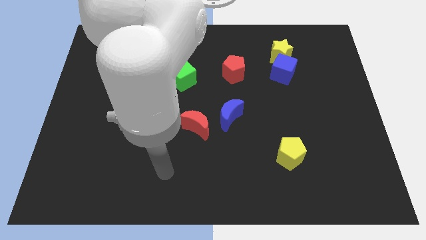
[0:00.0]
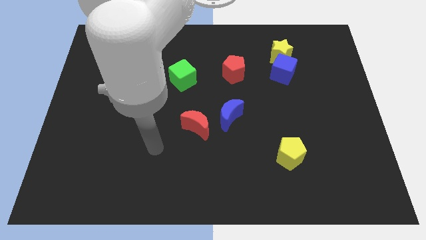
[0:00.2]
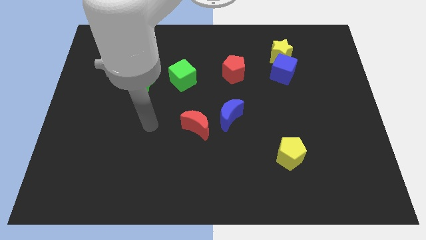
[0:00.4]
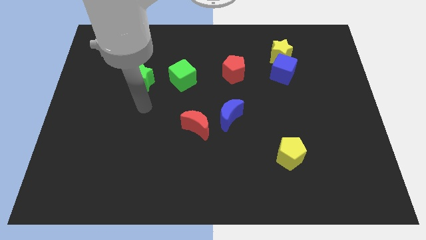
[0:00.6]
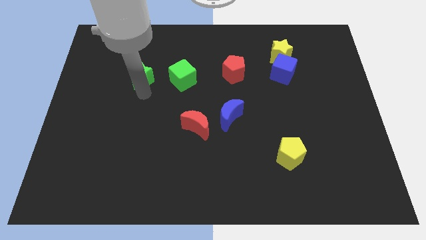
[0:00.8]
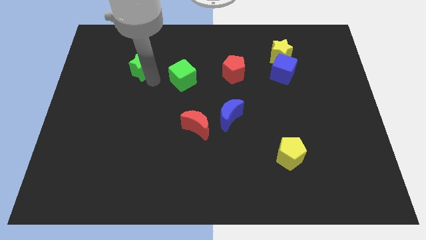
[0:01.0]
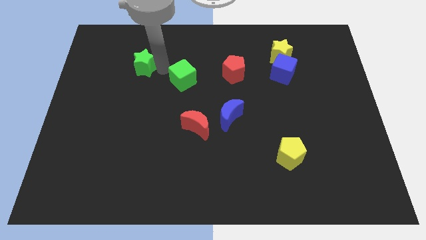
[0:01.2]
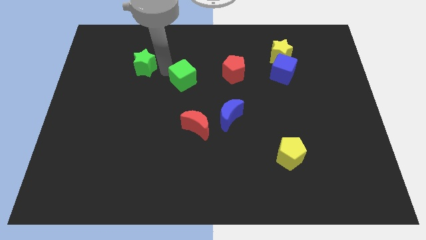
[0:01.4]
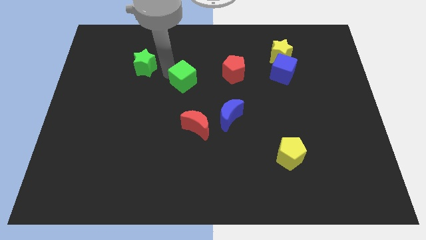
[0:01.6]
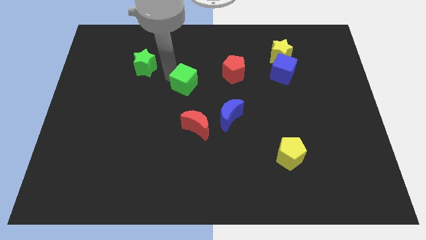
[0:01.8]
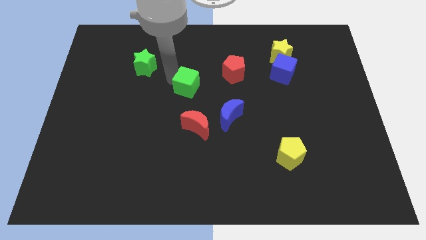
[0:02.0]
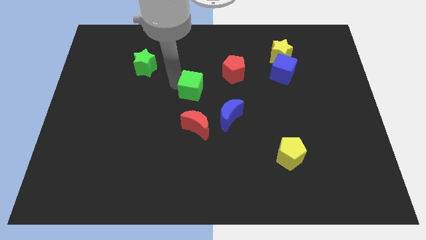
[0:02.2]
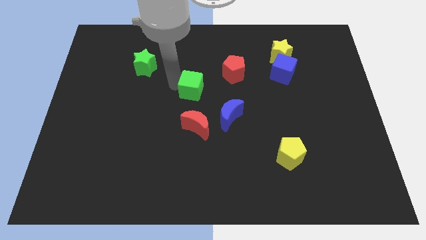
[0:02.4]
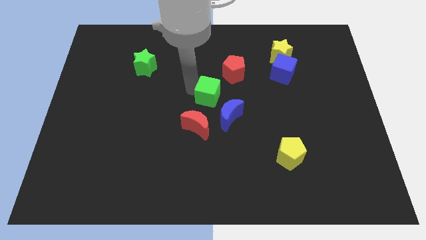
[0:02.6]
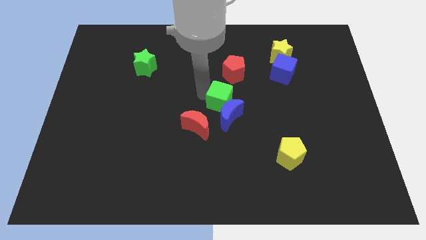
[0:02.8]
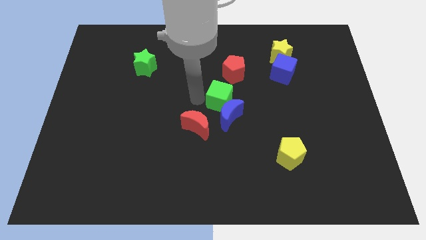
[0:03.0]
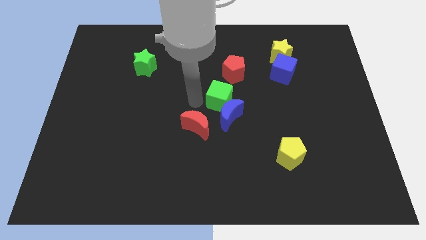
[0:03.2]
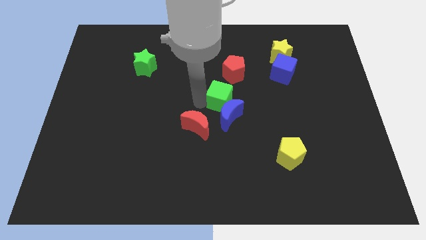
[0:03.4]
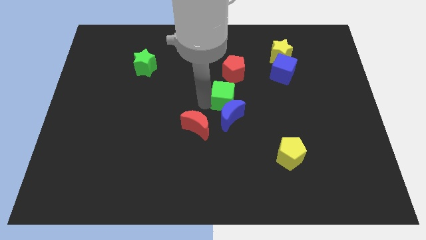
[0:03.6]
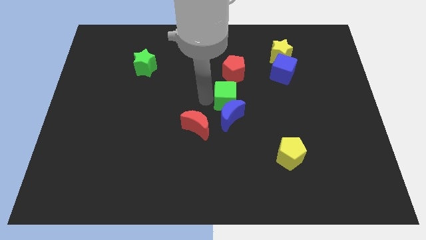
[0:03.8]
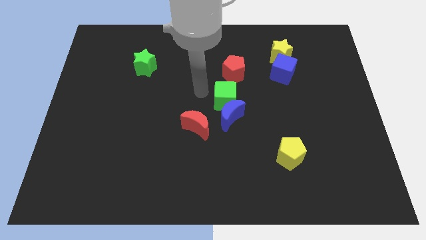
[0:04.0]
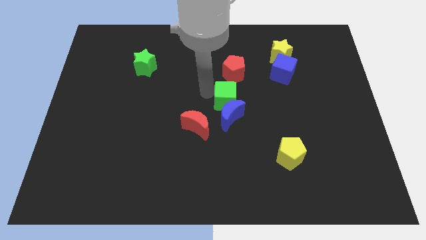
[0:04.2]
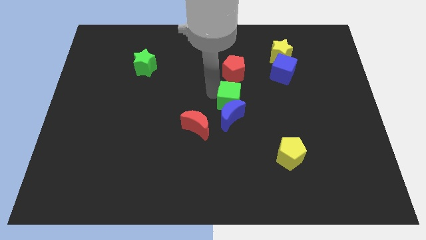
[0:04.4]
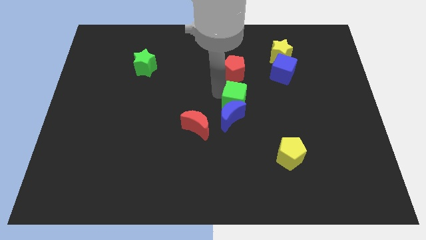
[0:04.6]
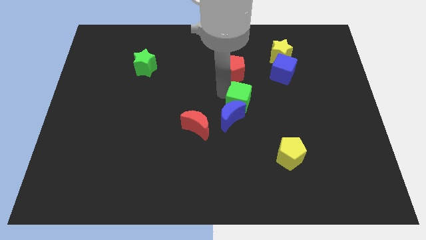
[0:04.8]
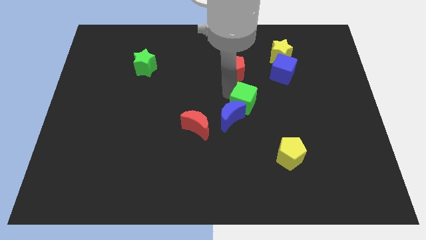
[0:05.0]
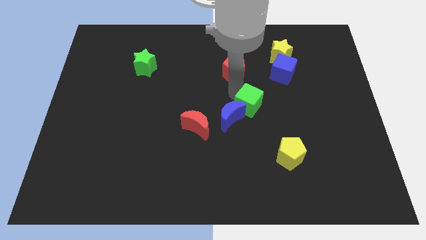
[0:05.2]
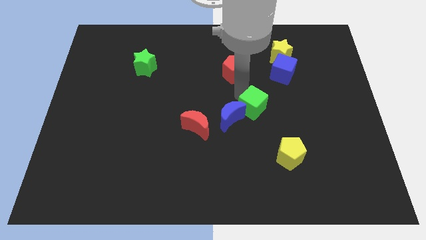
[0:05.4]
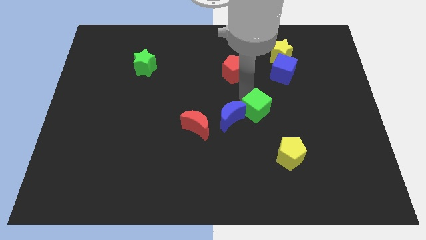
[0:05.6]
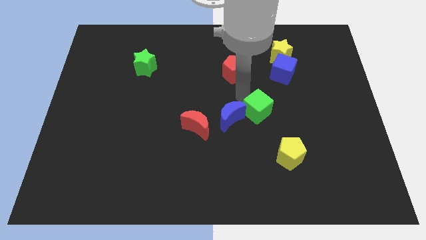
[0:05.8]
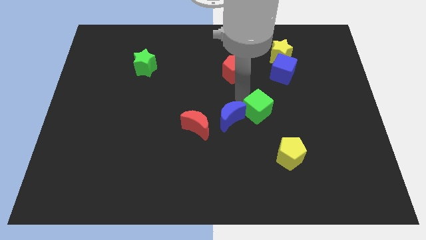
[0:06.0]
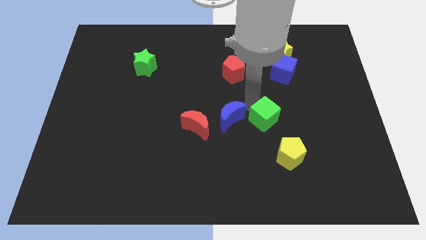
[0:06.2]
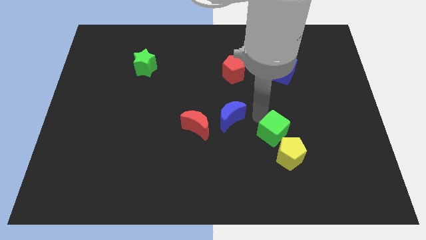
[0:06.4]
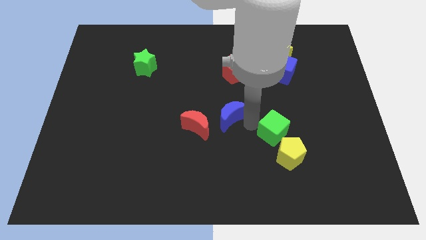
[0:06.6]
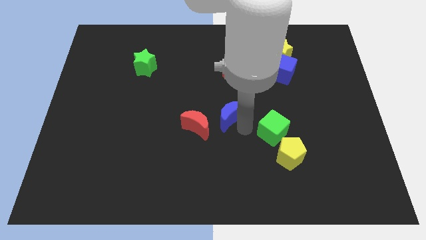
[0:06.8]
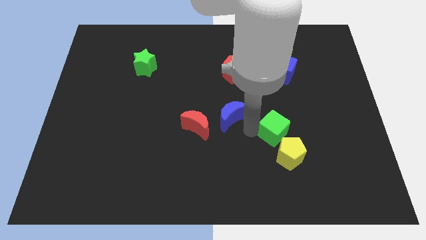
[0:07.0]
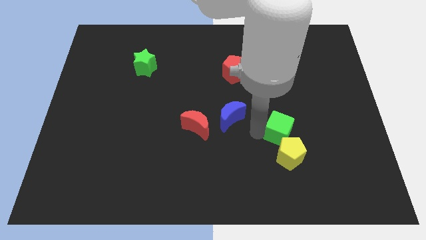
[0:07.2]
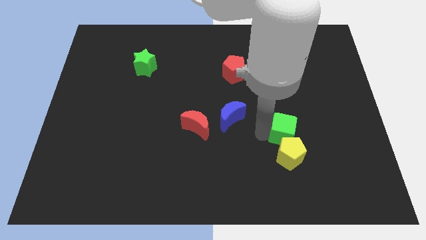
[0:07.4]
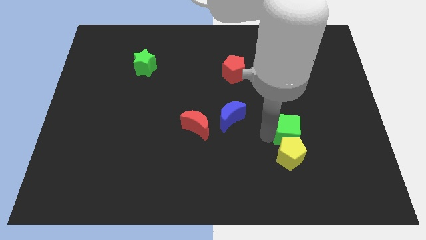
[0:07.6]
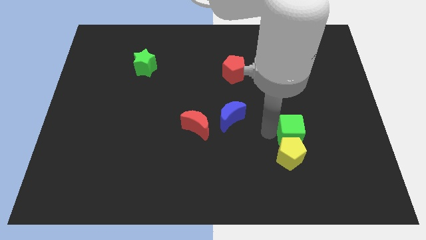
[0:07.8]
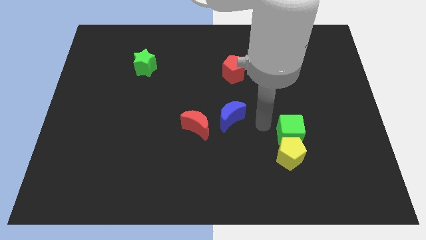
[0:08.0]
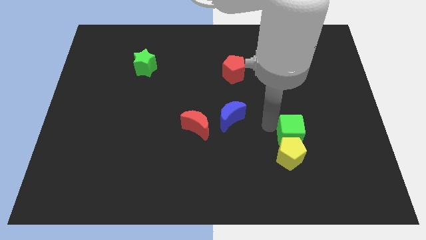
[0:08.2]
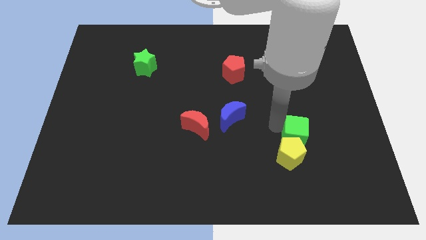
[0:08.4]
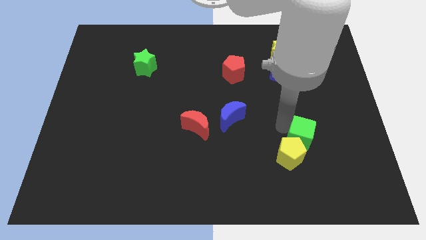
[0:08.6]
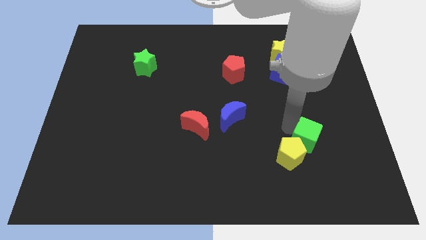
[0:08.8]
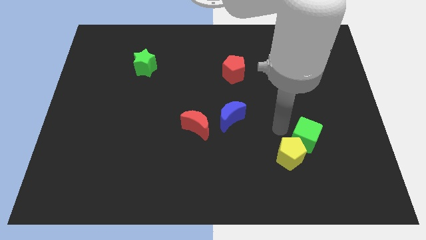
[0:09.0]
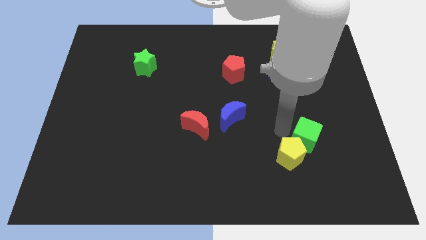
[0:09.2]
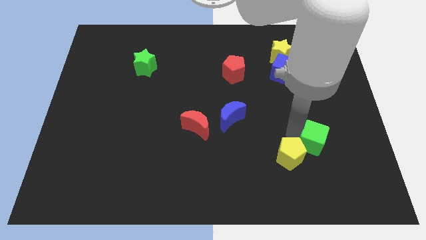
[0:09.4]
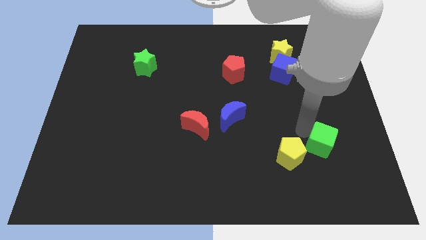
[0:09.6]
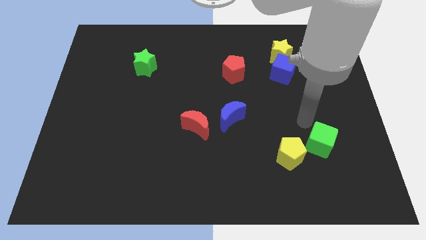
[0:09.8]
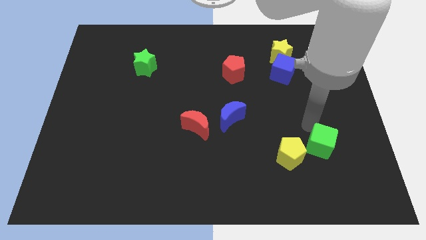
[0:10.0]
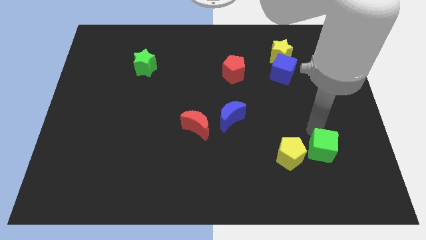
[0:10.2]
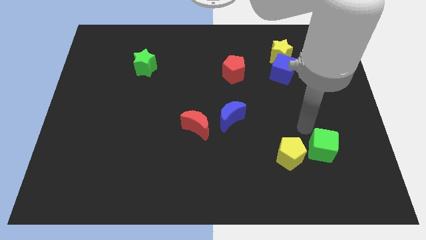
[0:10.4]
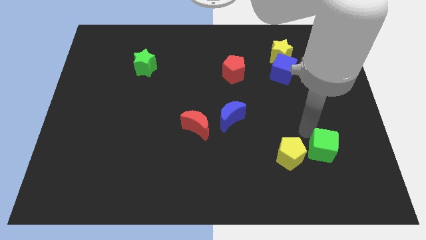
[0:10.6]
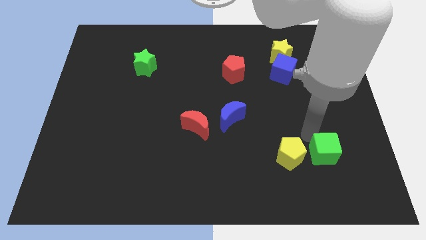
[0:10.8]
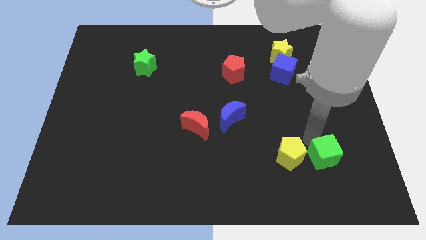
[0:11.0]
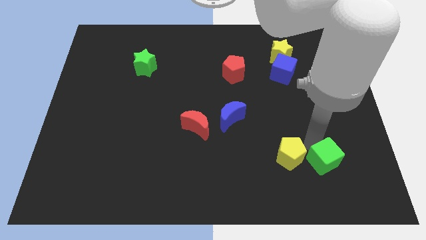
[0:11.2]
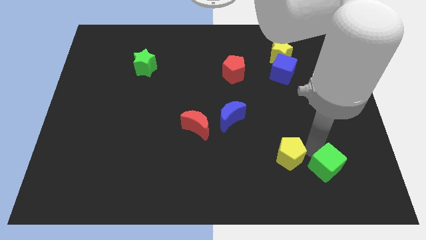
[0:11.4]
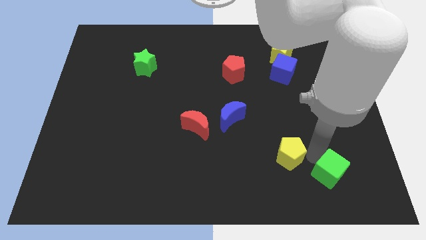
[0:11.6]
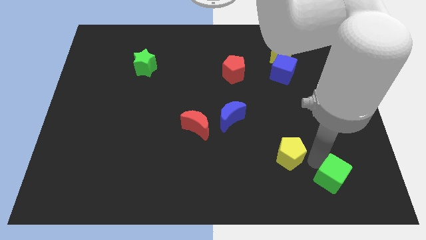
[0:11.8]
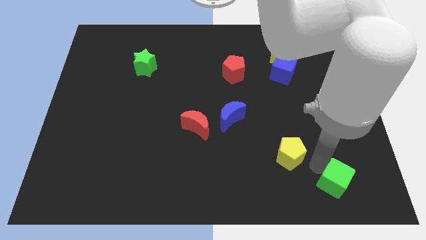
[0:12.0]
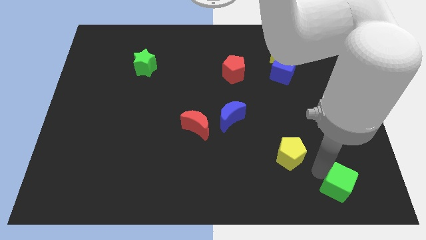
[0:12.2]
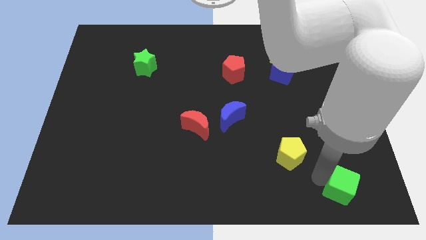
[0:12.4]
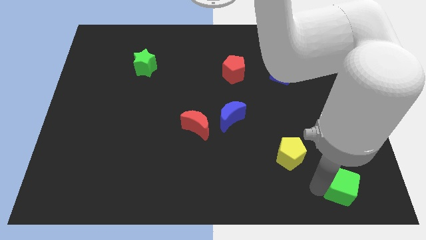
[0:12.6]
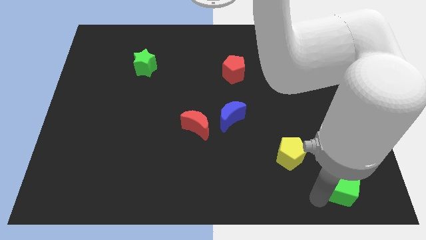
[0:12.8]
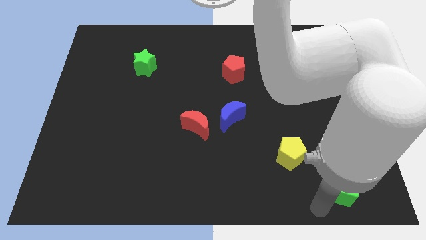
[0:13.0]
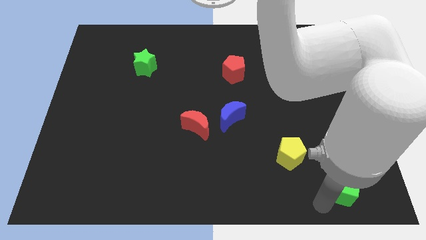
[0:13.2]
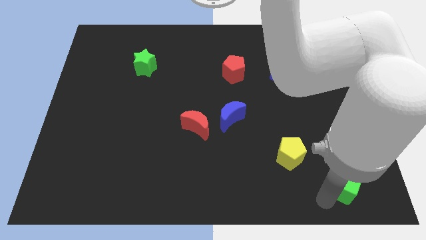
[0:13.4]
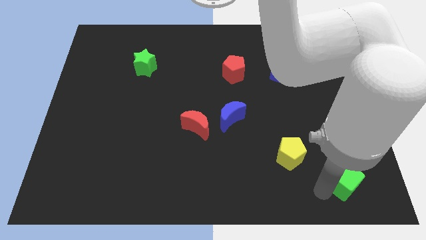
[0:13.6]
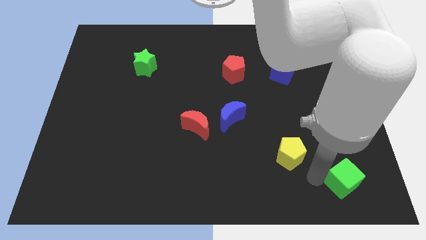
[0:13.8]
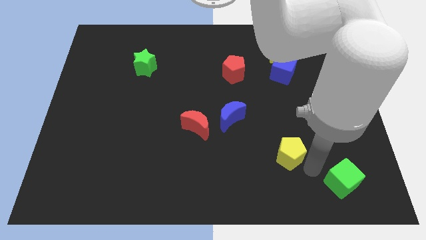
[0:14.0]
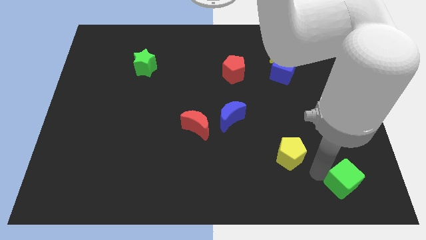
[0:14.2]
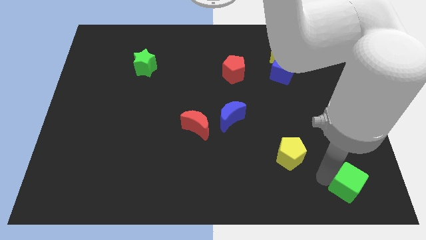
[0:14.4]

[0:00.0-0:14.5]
put the green cube to the bottom right

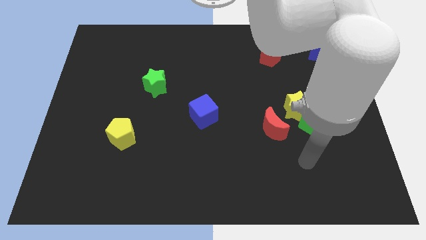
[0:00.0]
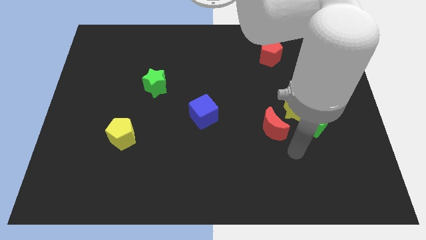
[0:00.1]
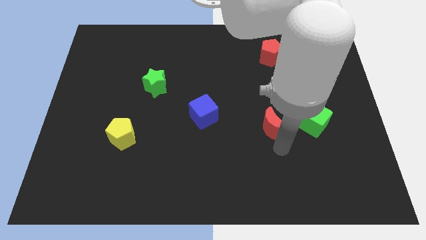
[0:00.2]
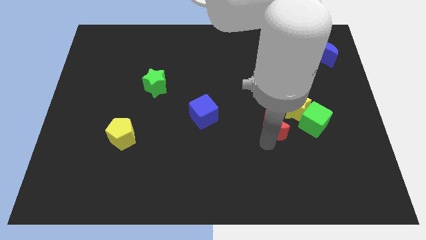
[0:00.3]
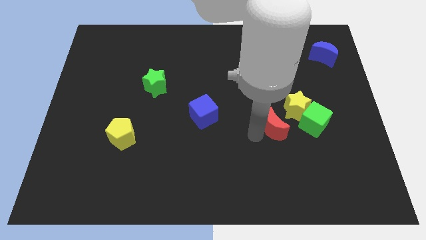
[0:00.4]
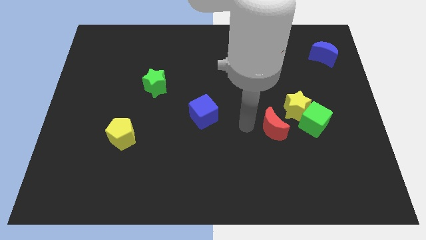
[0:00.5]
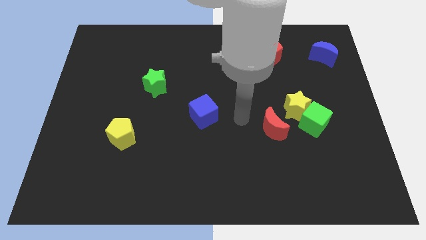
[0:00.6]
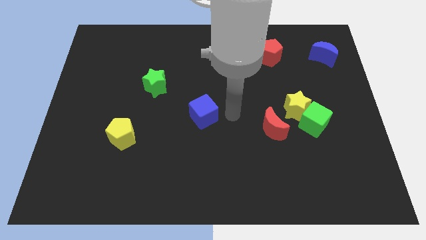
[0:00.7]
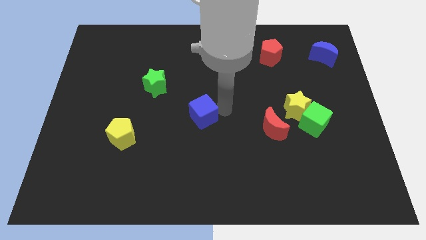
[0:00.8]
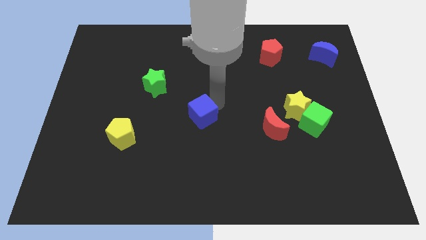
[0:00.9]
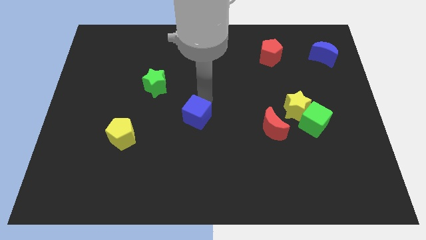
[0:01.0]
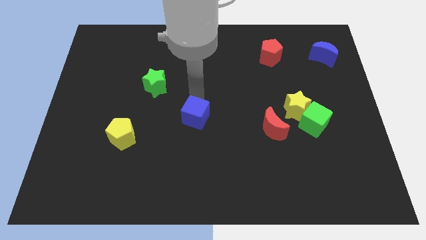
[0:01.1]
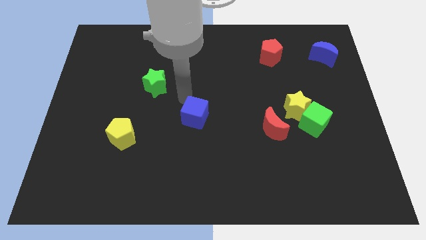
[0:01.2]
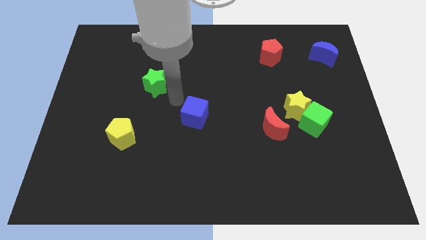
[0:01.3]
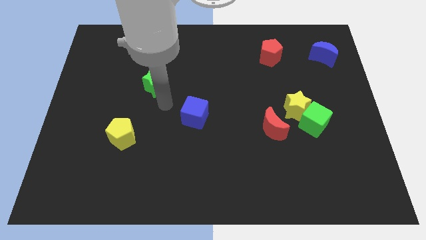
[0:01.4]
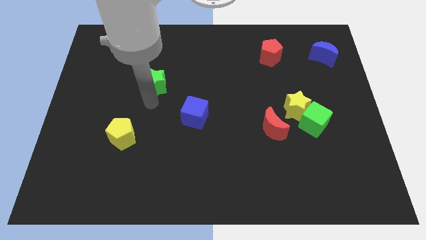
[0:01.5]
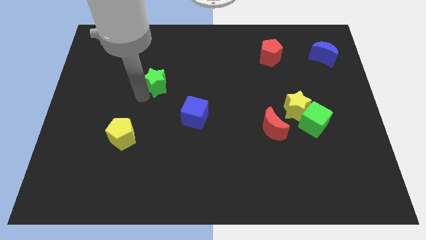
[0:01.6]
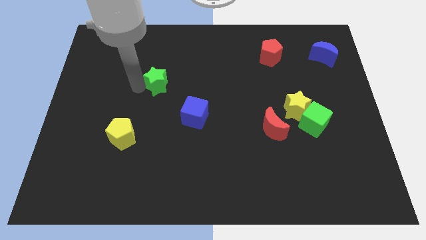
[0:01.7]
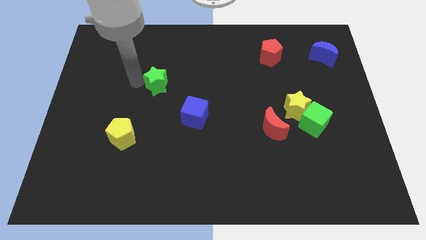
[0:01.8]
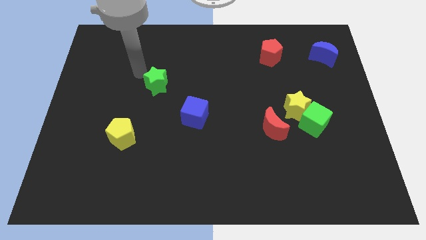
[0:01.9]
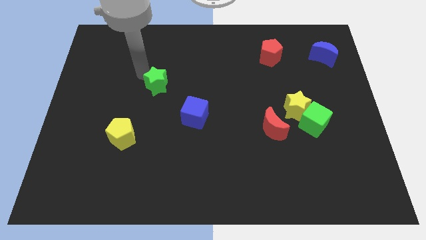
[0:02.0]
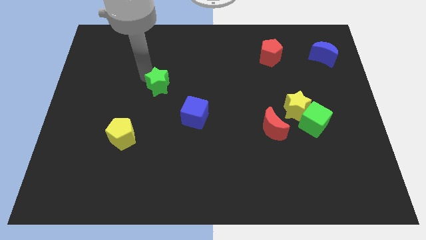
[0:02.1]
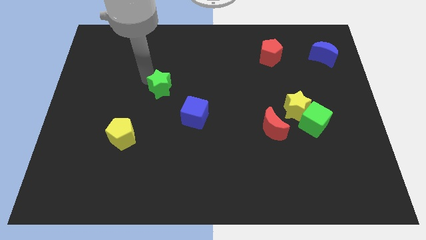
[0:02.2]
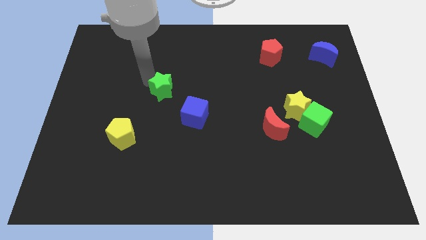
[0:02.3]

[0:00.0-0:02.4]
move the green star to the center
